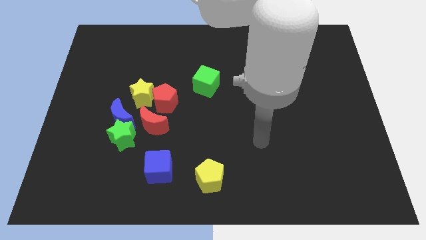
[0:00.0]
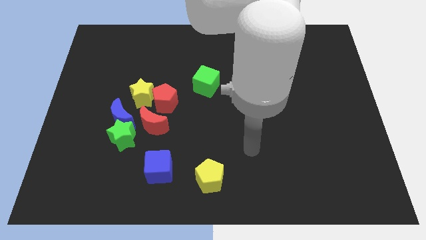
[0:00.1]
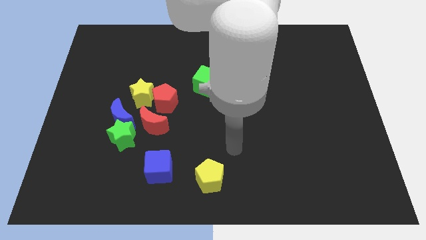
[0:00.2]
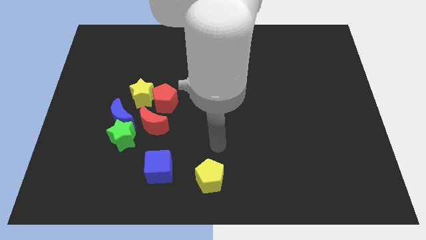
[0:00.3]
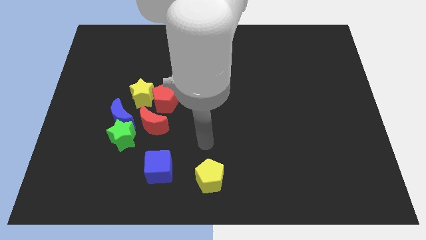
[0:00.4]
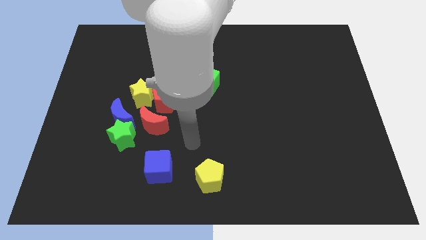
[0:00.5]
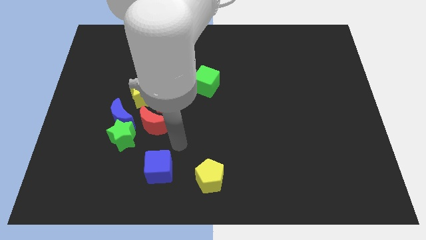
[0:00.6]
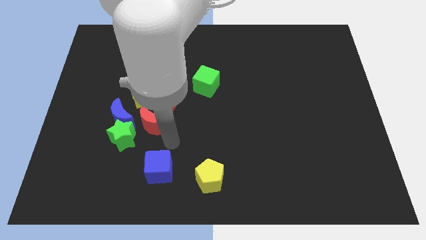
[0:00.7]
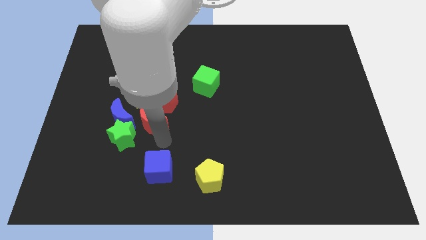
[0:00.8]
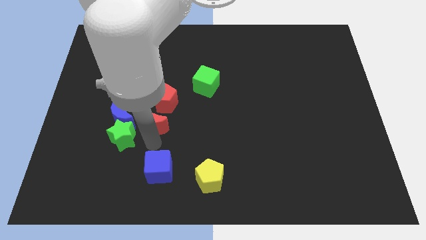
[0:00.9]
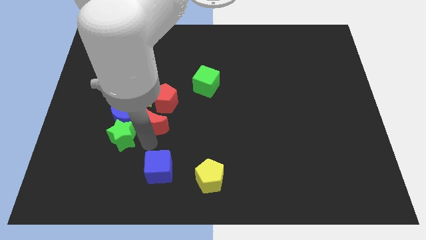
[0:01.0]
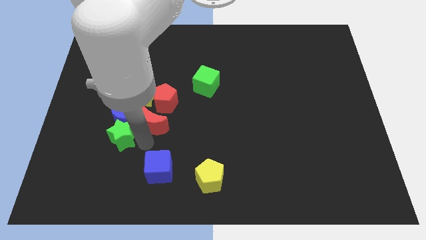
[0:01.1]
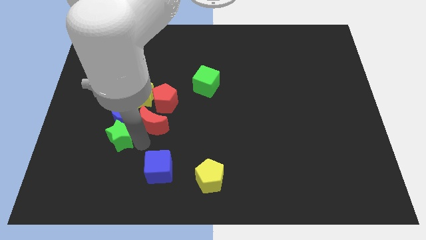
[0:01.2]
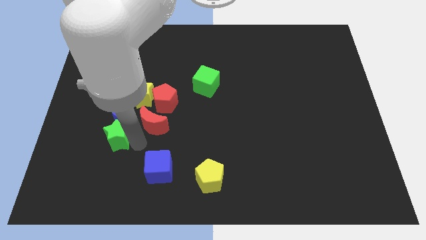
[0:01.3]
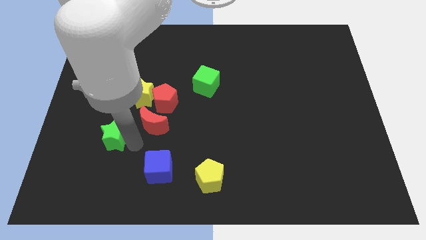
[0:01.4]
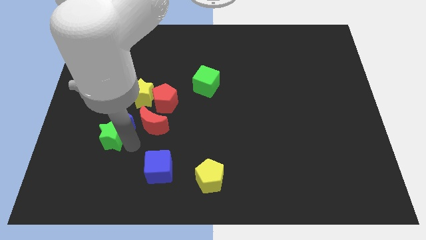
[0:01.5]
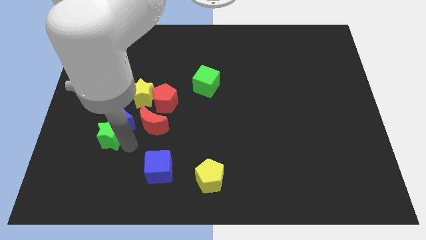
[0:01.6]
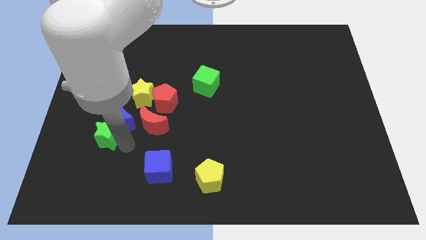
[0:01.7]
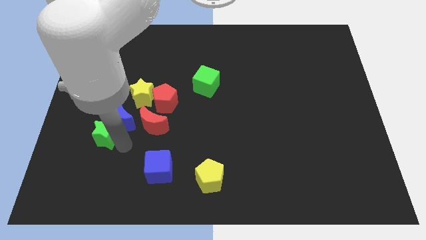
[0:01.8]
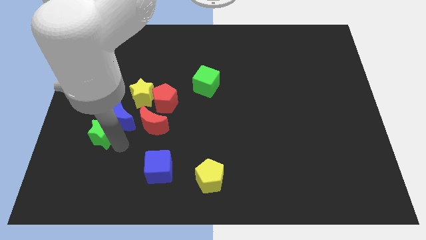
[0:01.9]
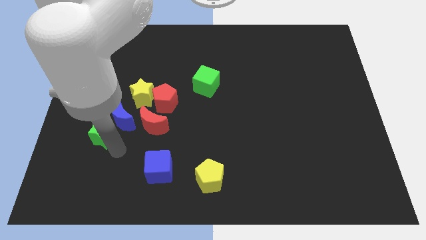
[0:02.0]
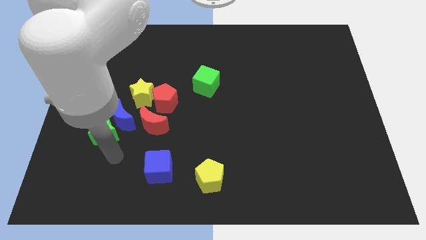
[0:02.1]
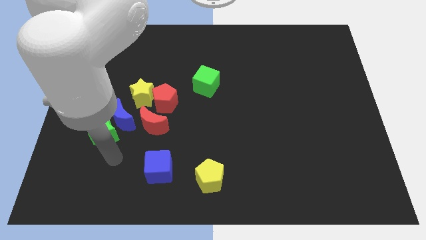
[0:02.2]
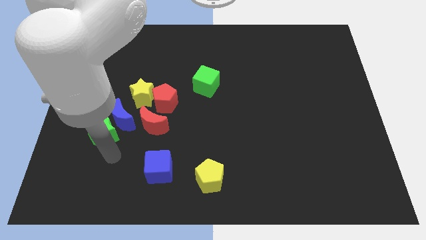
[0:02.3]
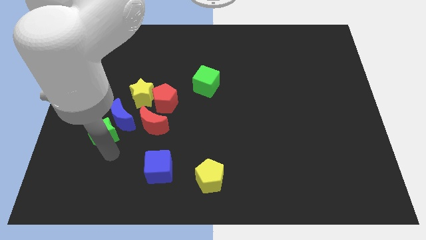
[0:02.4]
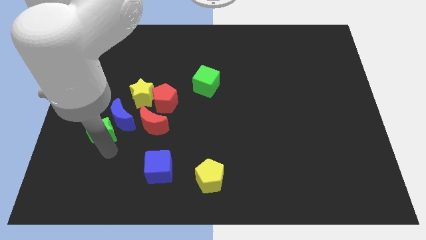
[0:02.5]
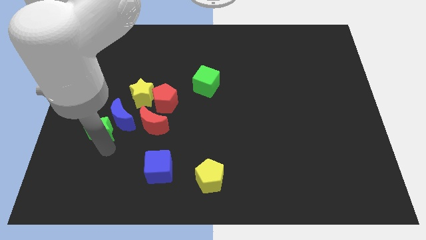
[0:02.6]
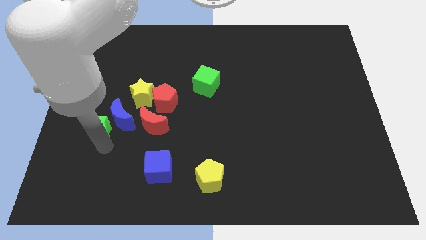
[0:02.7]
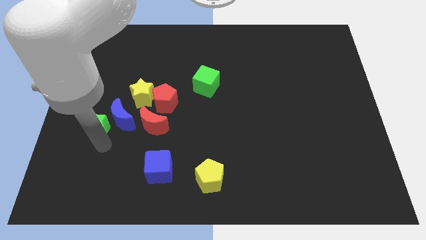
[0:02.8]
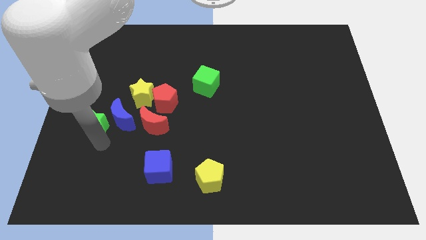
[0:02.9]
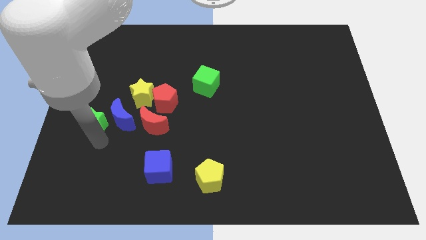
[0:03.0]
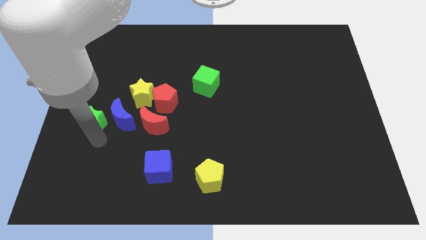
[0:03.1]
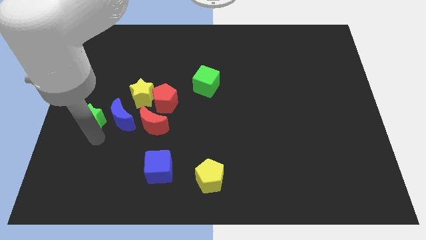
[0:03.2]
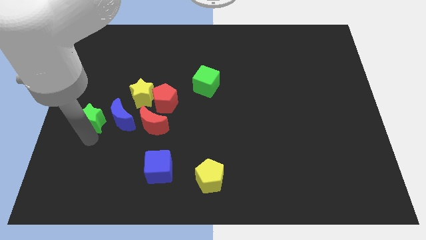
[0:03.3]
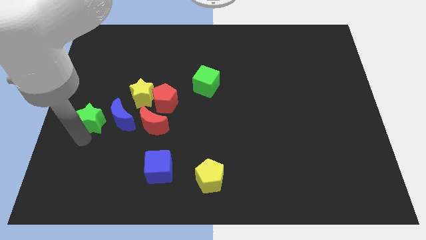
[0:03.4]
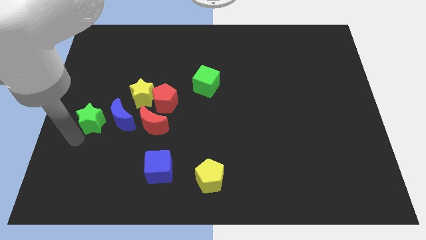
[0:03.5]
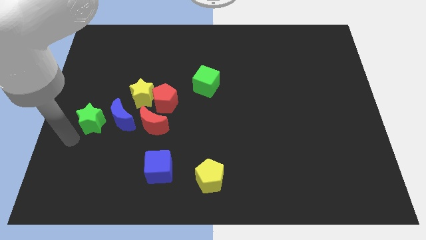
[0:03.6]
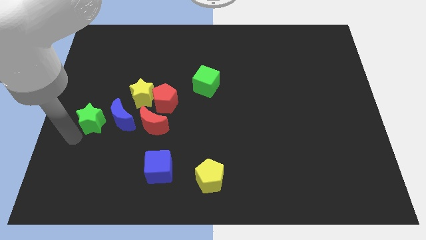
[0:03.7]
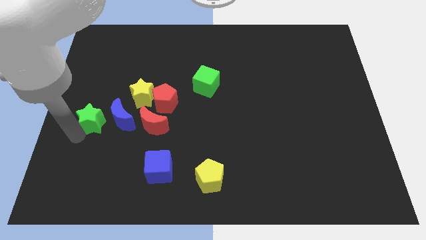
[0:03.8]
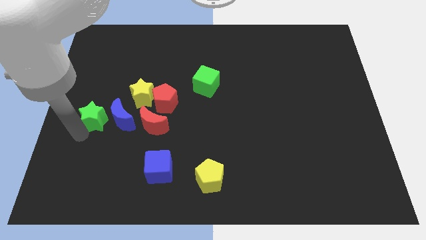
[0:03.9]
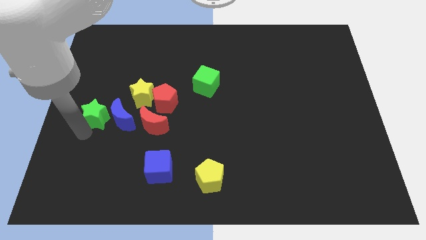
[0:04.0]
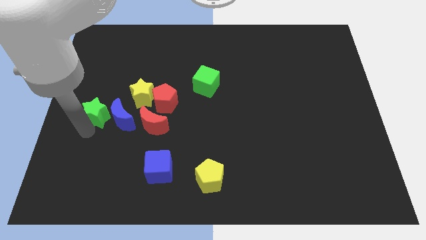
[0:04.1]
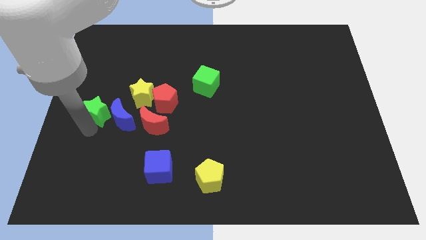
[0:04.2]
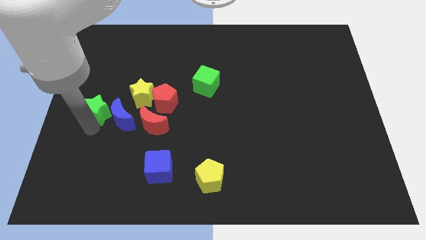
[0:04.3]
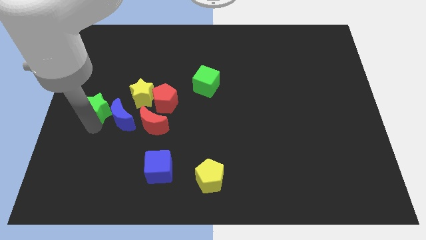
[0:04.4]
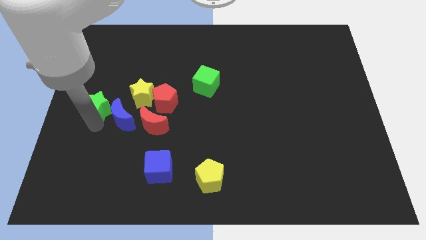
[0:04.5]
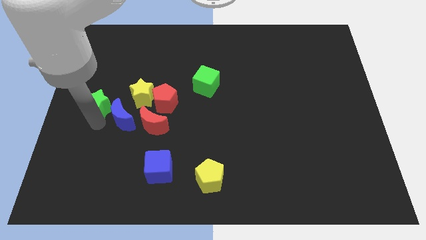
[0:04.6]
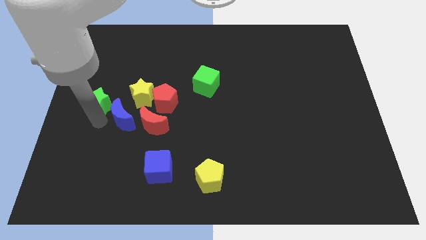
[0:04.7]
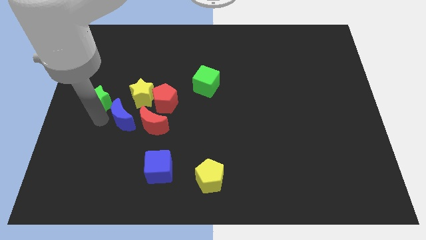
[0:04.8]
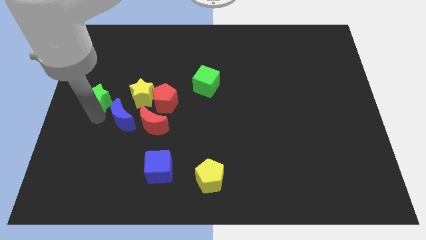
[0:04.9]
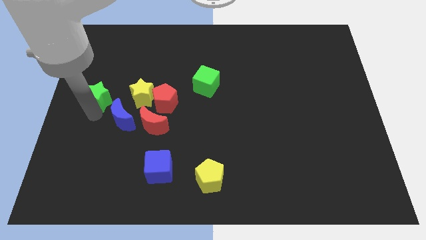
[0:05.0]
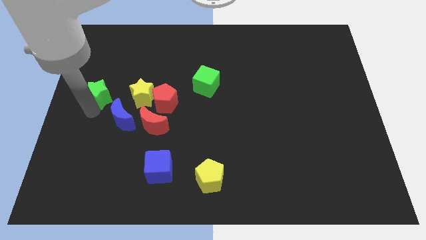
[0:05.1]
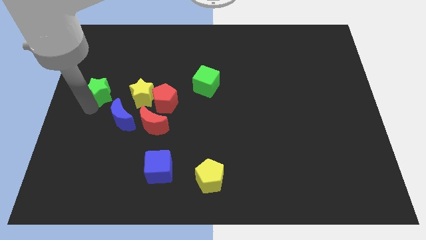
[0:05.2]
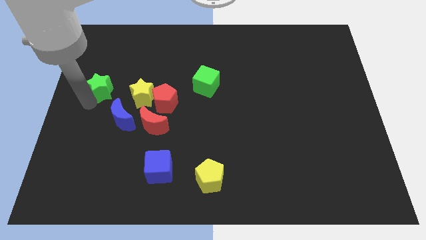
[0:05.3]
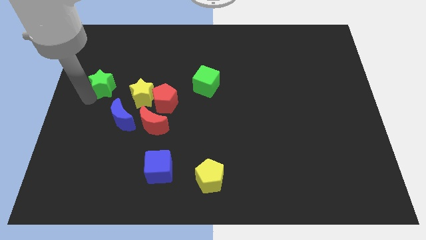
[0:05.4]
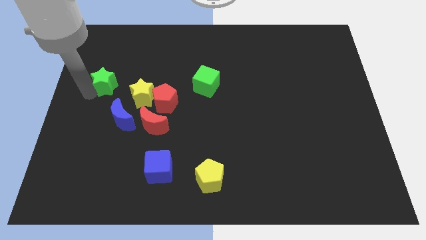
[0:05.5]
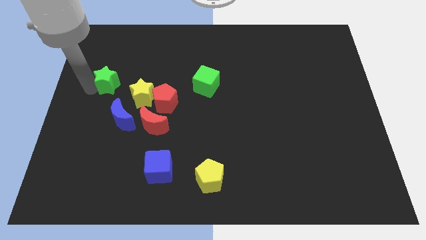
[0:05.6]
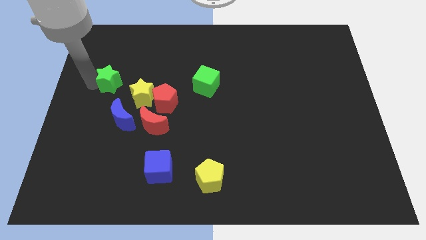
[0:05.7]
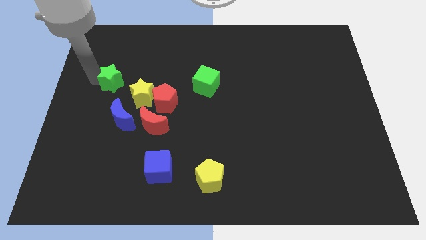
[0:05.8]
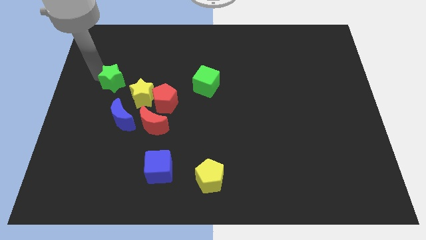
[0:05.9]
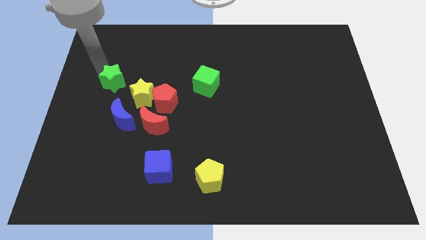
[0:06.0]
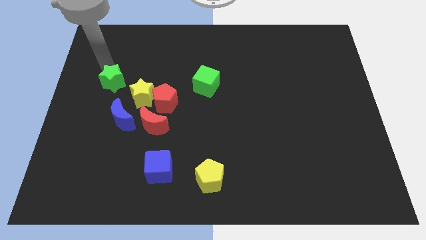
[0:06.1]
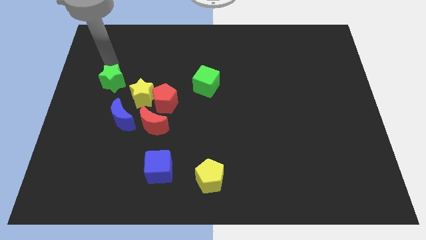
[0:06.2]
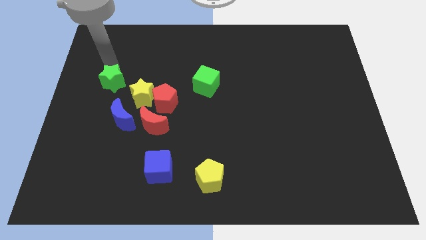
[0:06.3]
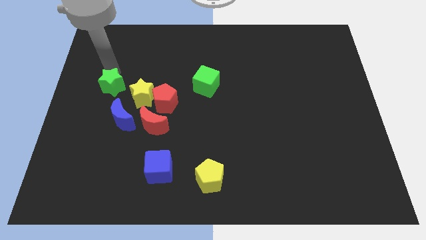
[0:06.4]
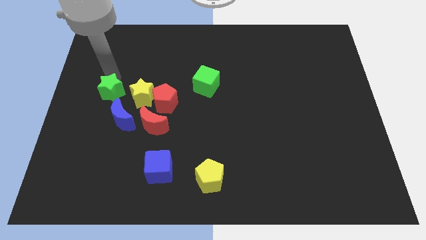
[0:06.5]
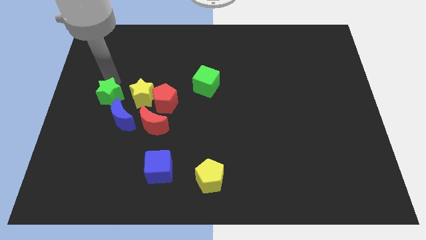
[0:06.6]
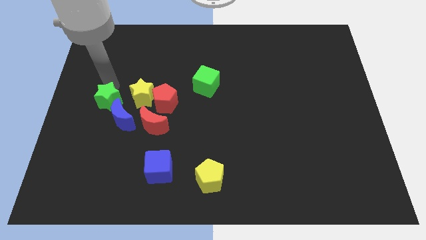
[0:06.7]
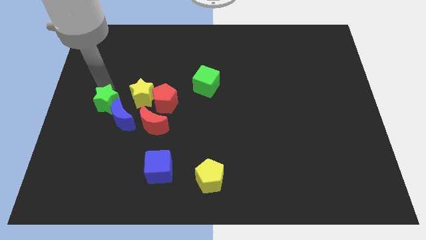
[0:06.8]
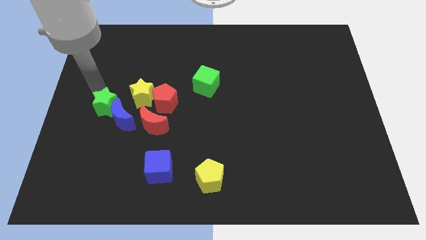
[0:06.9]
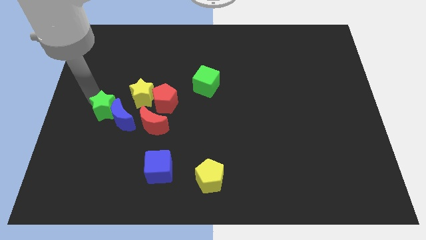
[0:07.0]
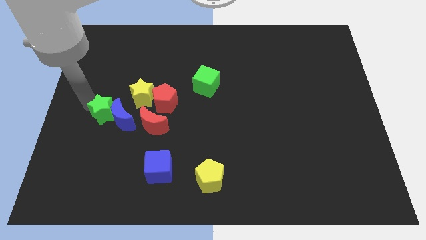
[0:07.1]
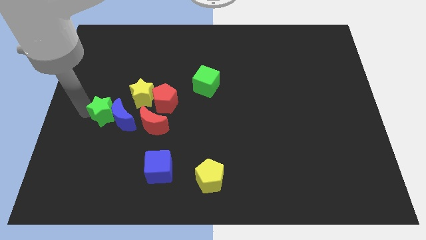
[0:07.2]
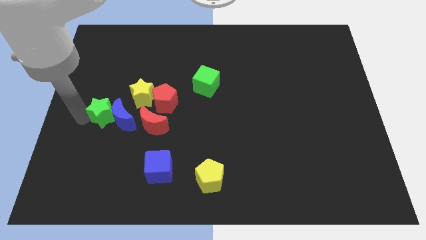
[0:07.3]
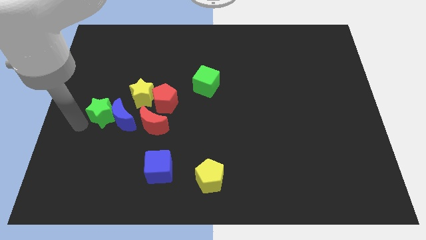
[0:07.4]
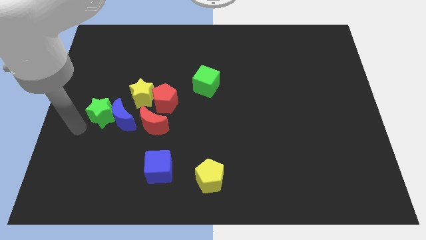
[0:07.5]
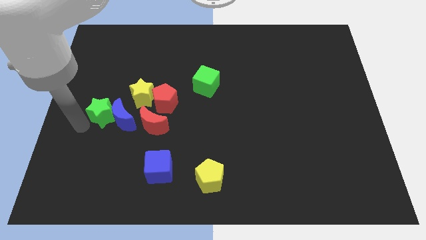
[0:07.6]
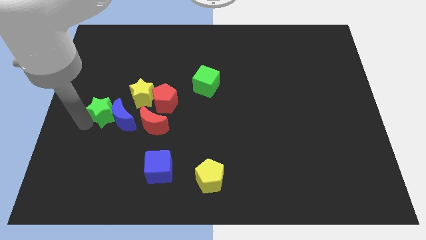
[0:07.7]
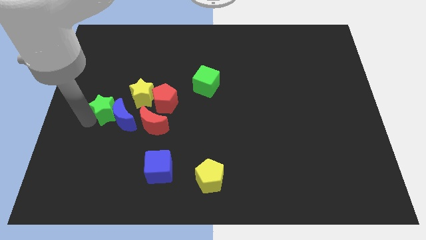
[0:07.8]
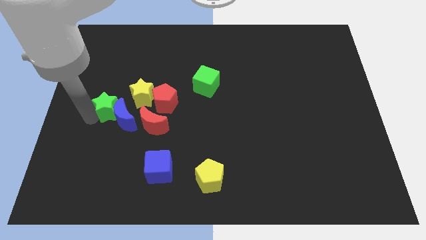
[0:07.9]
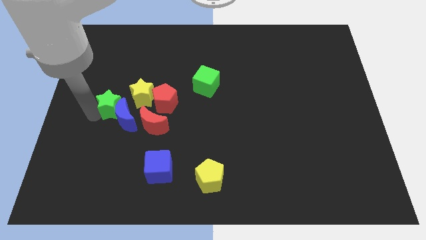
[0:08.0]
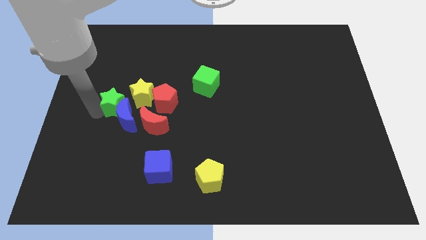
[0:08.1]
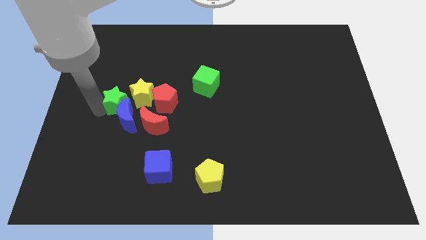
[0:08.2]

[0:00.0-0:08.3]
put the green star towards the yellow star
